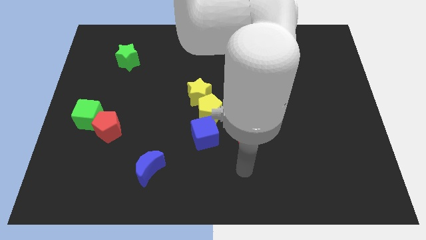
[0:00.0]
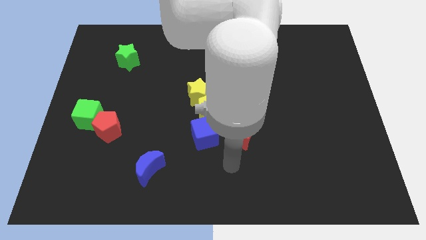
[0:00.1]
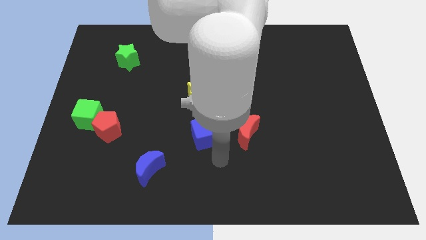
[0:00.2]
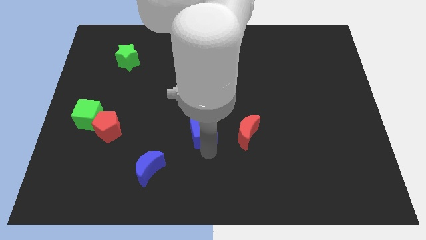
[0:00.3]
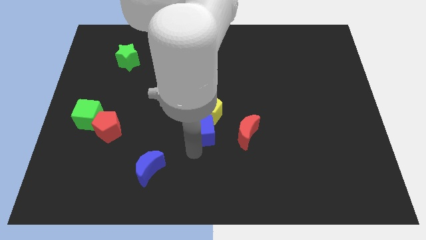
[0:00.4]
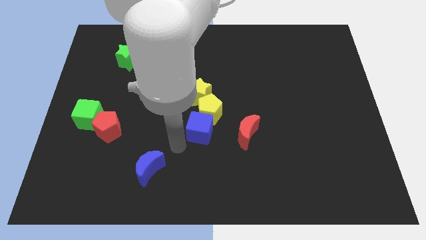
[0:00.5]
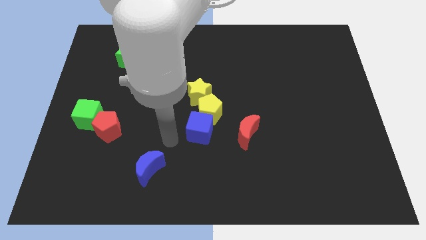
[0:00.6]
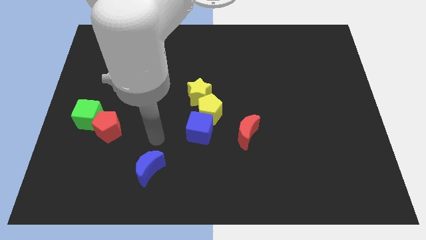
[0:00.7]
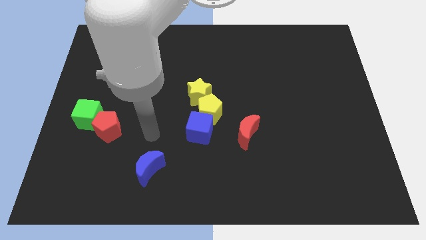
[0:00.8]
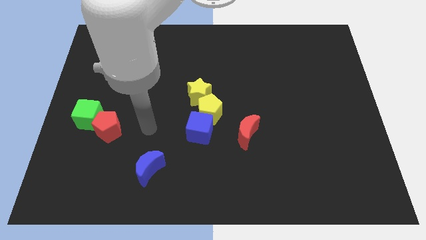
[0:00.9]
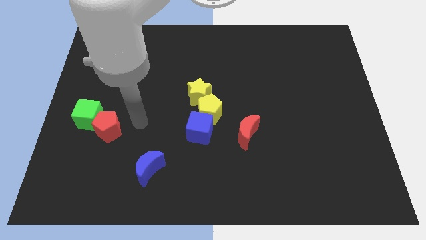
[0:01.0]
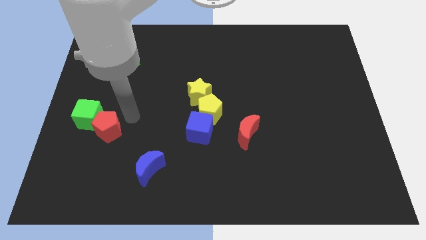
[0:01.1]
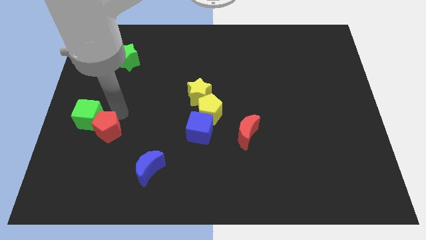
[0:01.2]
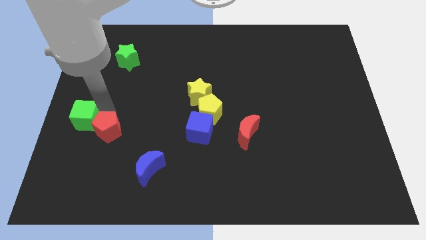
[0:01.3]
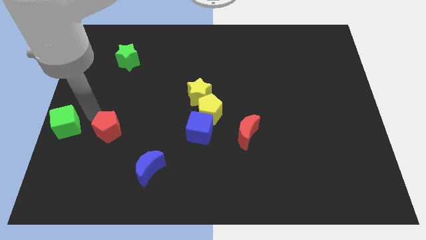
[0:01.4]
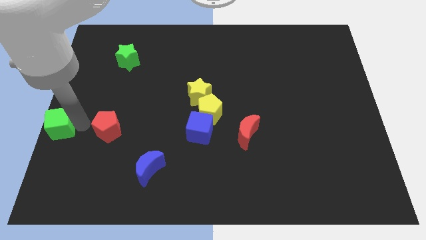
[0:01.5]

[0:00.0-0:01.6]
move the red pentagon away from the green cube

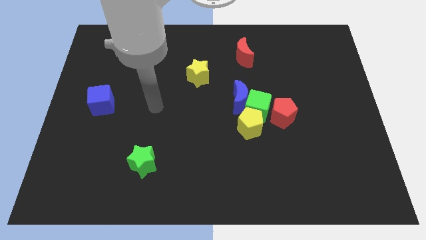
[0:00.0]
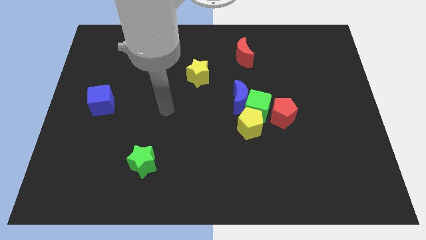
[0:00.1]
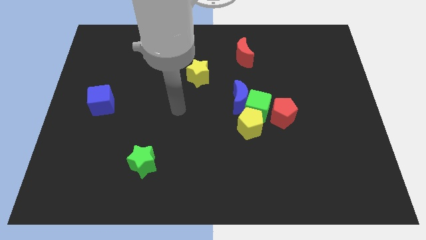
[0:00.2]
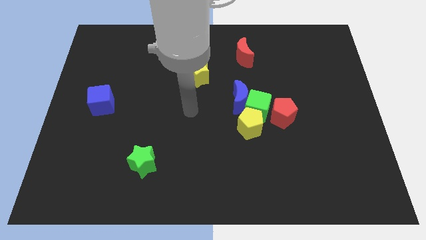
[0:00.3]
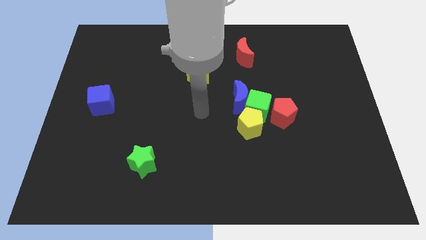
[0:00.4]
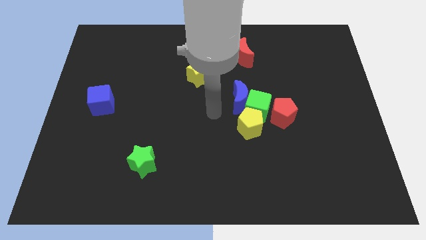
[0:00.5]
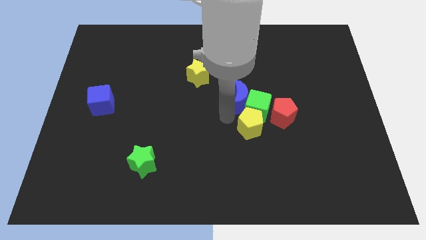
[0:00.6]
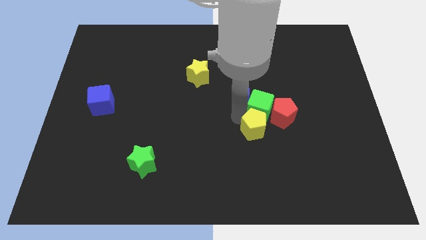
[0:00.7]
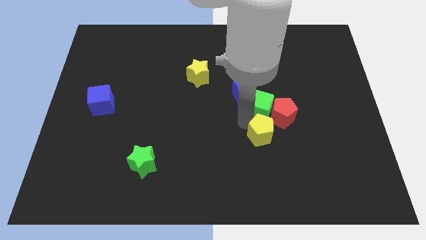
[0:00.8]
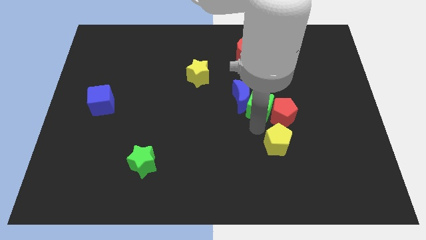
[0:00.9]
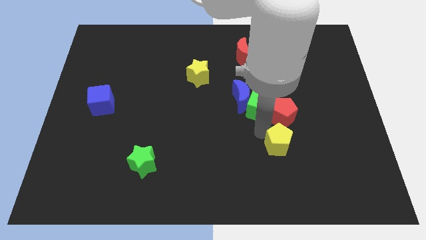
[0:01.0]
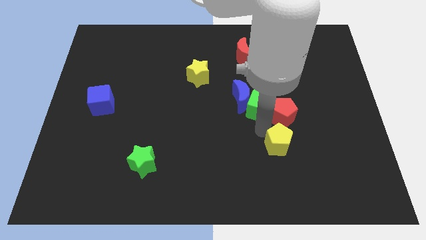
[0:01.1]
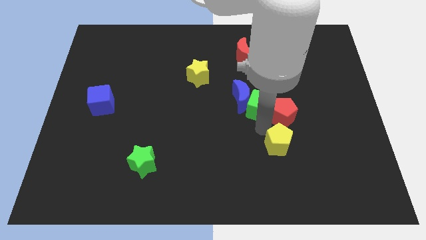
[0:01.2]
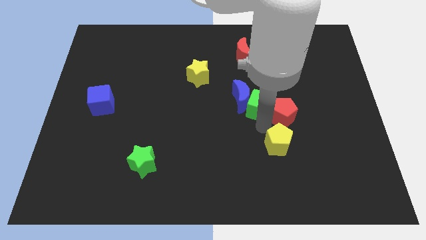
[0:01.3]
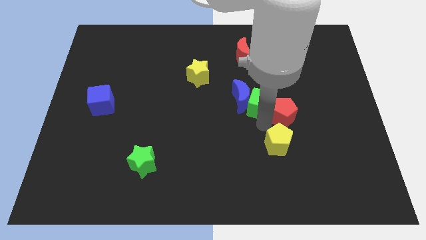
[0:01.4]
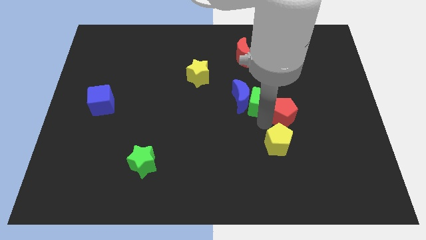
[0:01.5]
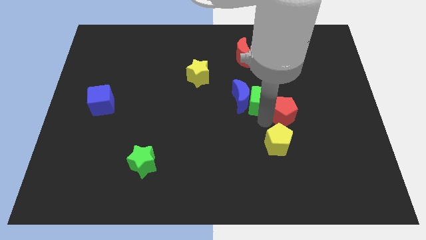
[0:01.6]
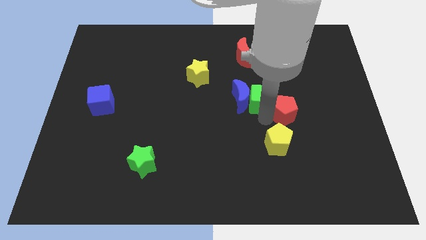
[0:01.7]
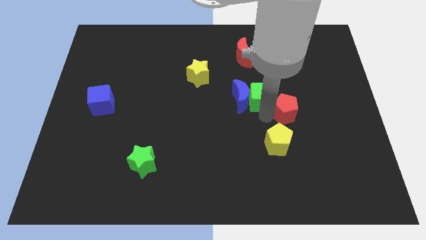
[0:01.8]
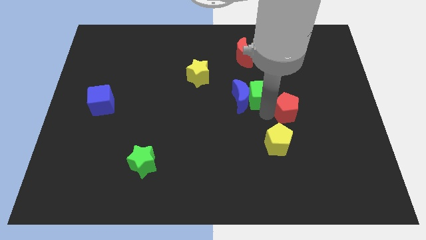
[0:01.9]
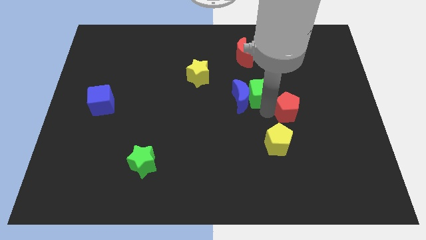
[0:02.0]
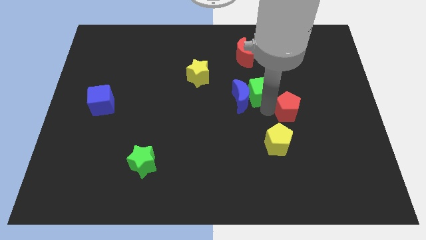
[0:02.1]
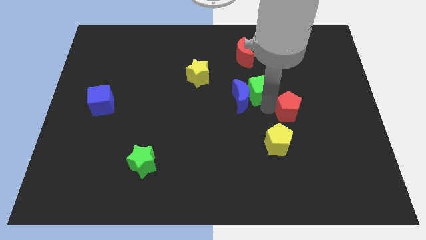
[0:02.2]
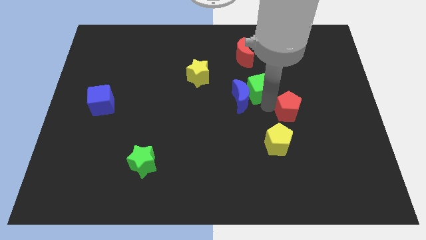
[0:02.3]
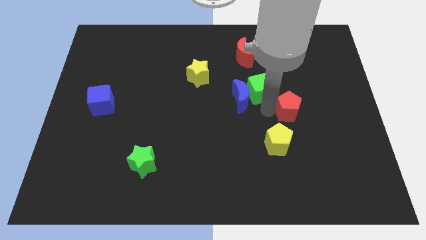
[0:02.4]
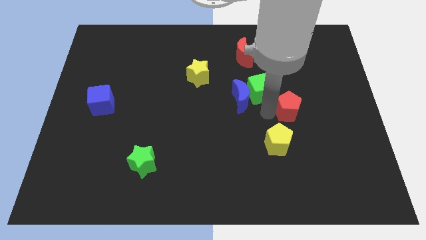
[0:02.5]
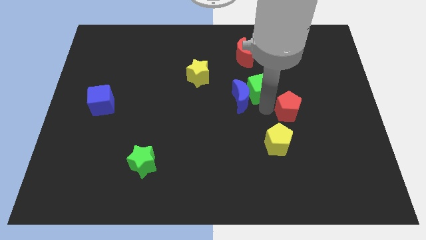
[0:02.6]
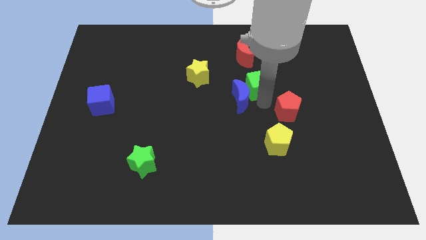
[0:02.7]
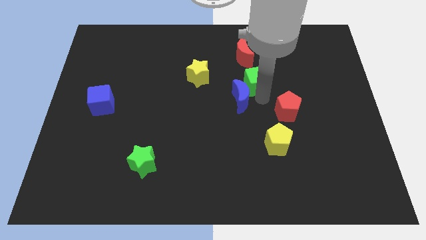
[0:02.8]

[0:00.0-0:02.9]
pull the green cube apart from the blue moon, yellow pentagon, and red pentagon

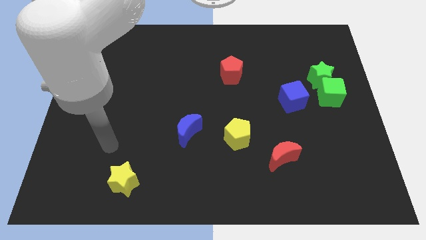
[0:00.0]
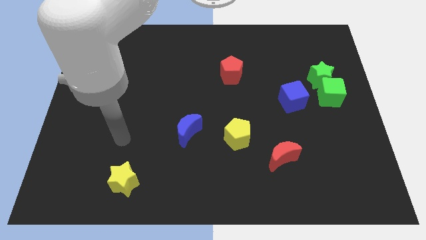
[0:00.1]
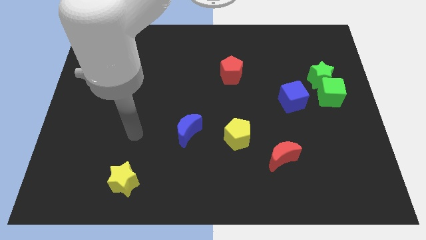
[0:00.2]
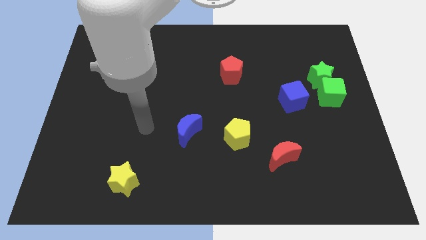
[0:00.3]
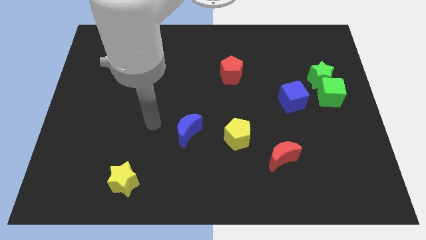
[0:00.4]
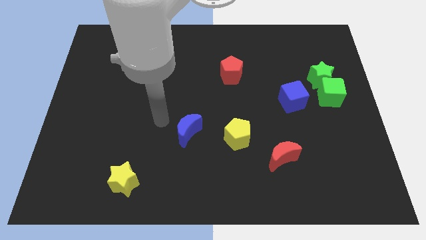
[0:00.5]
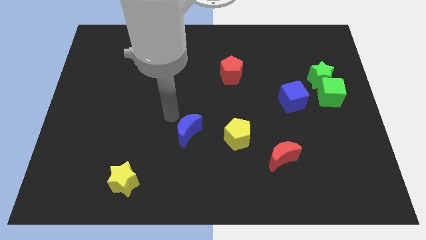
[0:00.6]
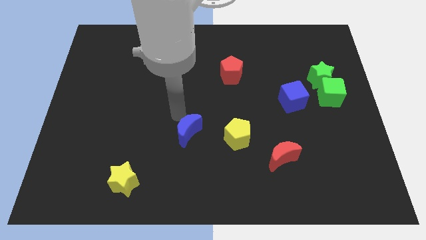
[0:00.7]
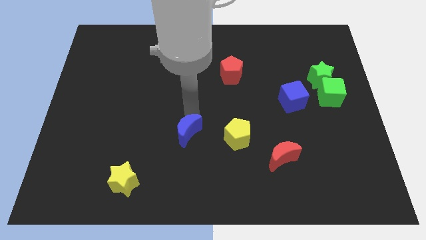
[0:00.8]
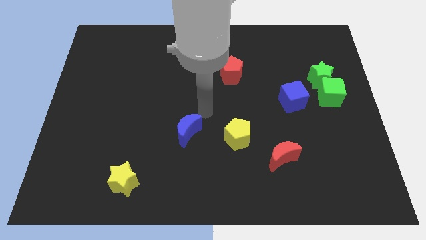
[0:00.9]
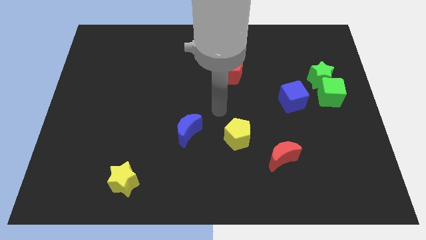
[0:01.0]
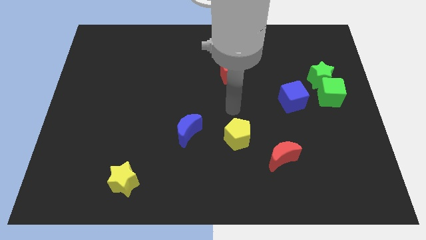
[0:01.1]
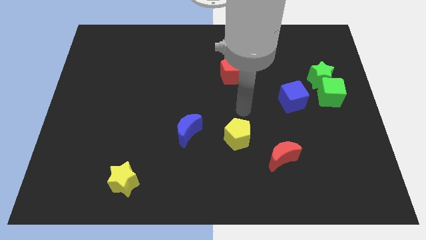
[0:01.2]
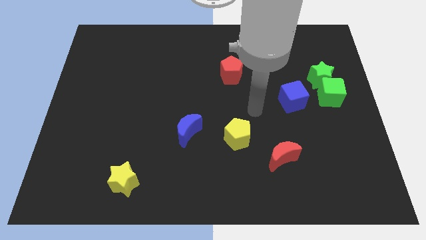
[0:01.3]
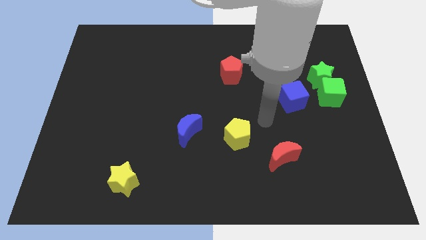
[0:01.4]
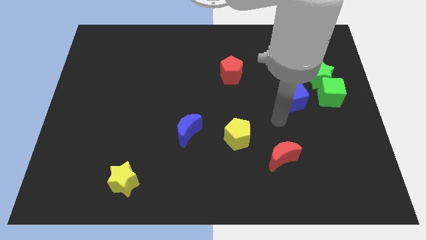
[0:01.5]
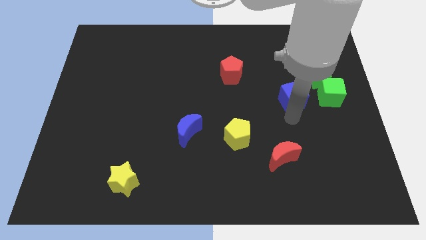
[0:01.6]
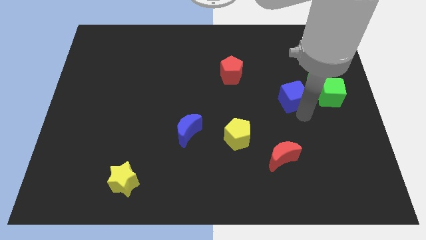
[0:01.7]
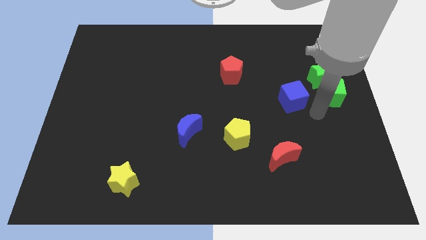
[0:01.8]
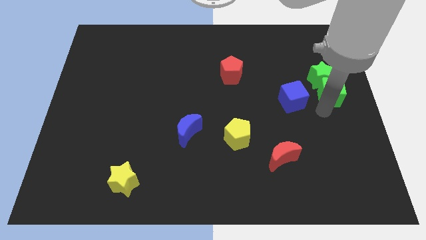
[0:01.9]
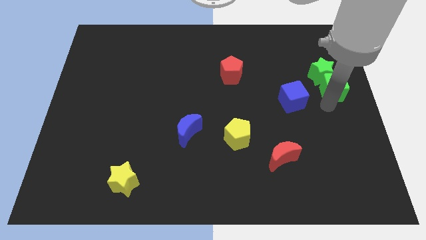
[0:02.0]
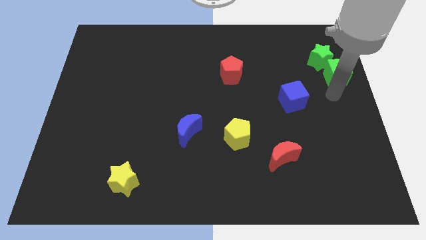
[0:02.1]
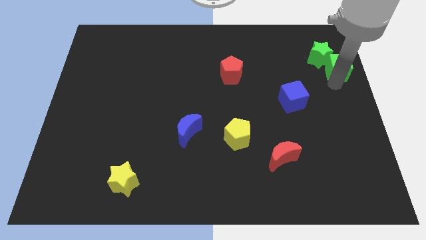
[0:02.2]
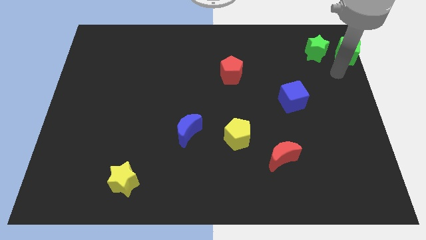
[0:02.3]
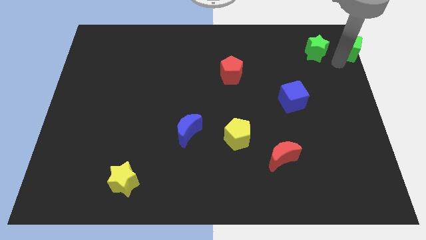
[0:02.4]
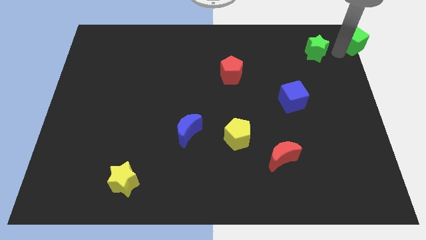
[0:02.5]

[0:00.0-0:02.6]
separate the green star from the green cube

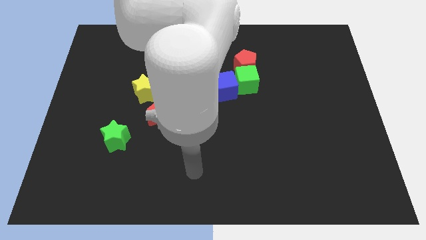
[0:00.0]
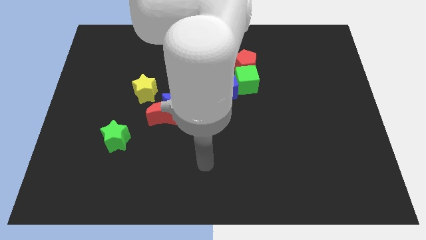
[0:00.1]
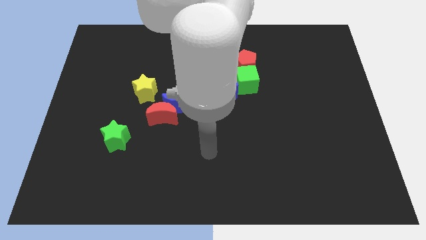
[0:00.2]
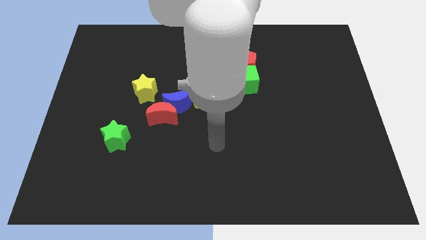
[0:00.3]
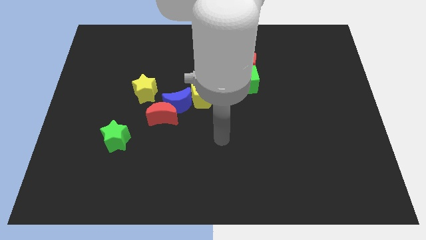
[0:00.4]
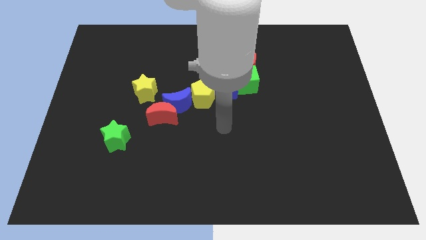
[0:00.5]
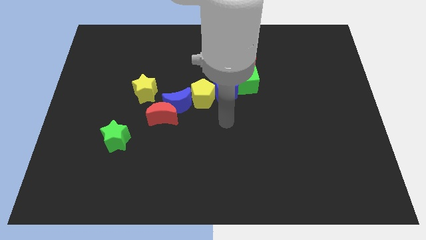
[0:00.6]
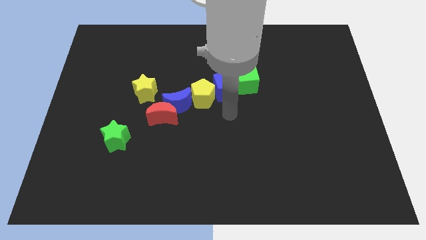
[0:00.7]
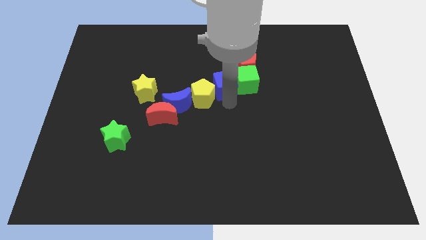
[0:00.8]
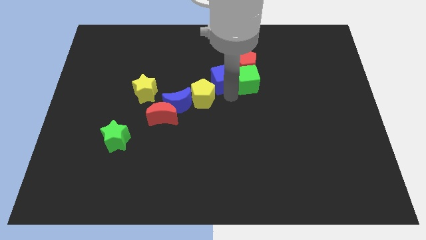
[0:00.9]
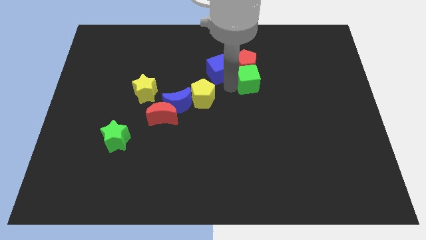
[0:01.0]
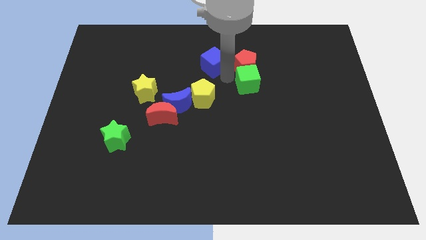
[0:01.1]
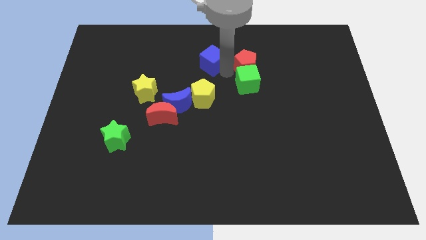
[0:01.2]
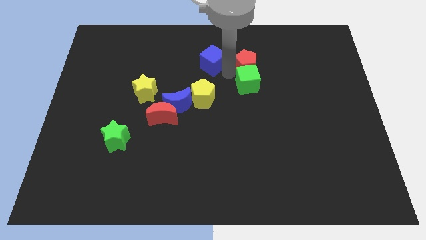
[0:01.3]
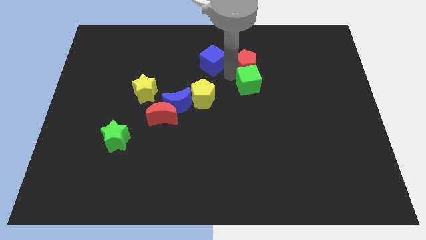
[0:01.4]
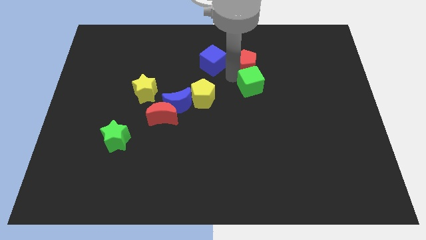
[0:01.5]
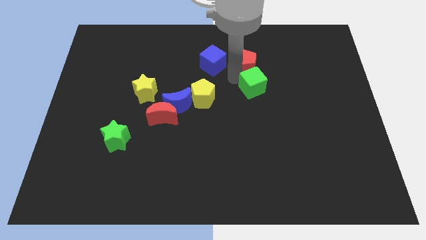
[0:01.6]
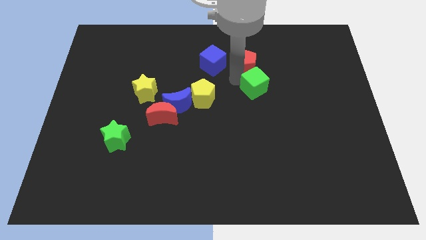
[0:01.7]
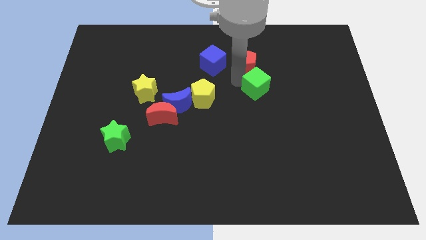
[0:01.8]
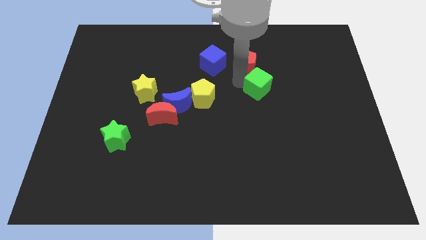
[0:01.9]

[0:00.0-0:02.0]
pull the green cube apart from the red pentagon and blue cube

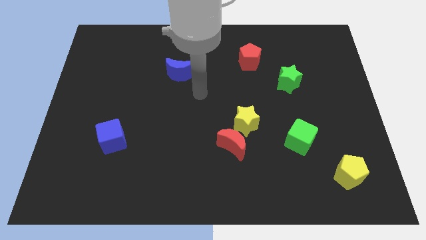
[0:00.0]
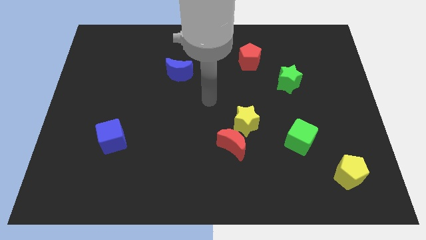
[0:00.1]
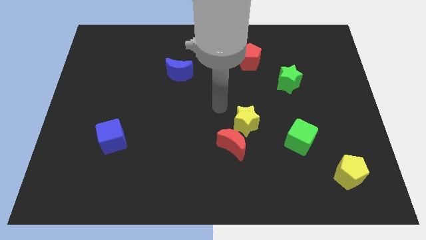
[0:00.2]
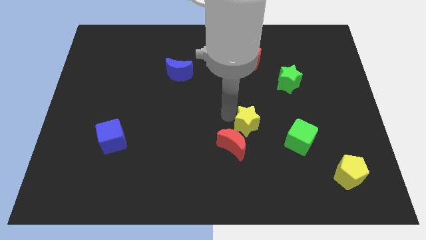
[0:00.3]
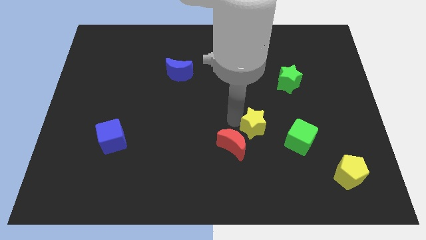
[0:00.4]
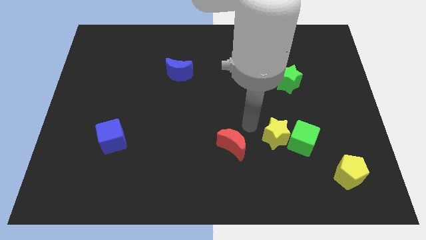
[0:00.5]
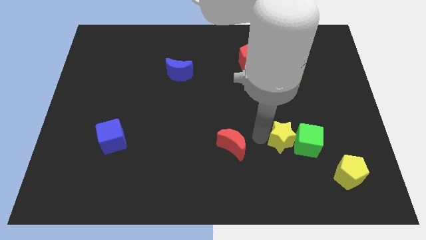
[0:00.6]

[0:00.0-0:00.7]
separate the red moon from the yellow star
